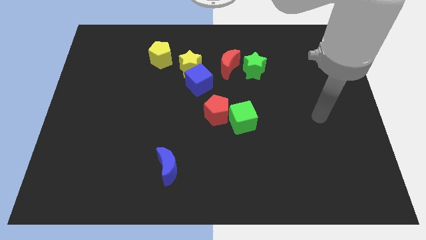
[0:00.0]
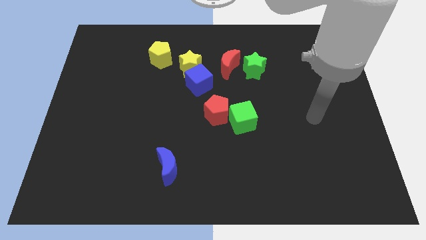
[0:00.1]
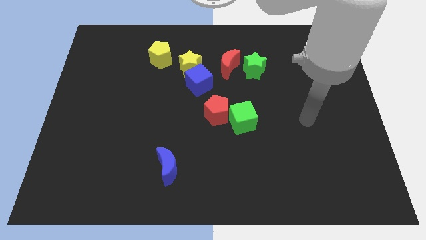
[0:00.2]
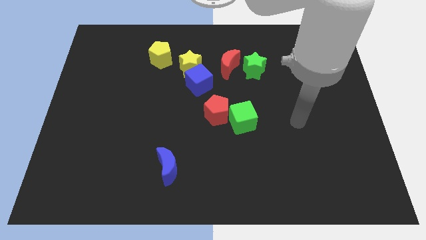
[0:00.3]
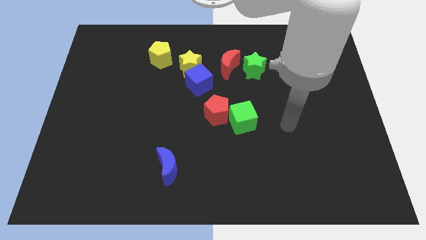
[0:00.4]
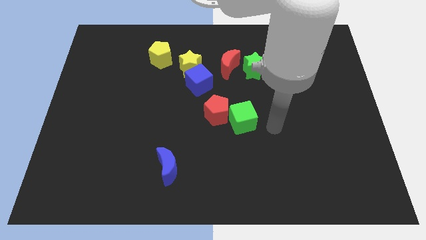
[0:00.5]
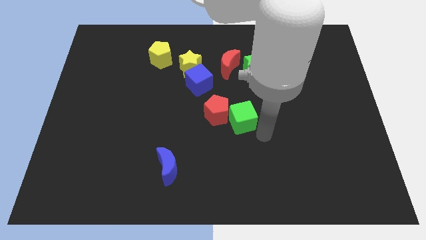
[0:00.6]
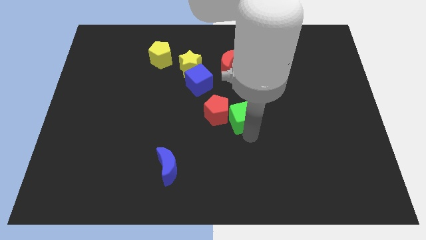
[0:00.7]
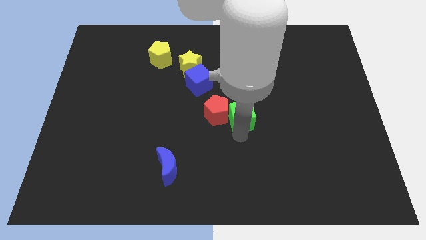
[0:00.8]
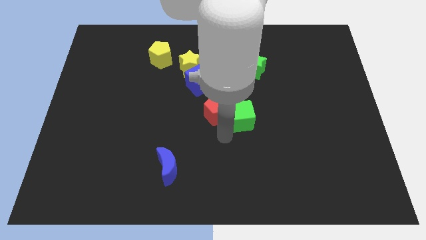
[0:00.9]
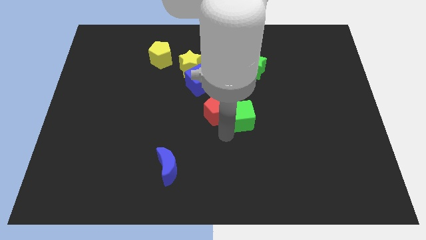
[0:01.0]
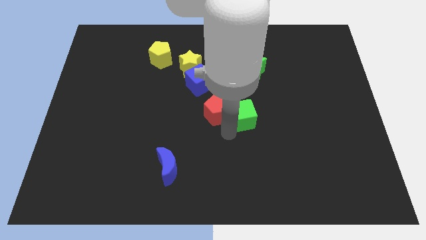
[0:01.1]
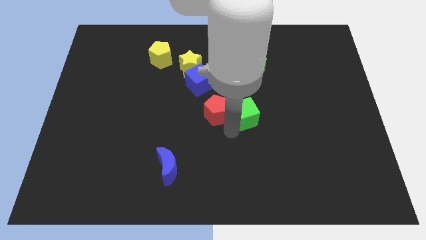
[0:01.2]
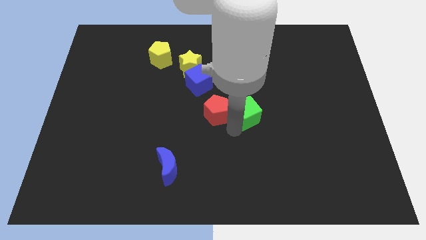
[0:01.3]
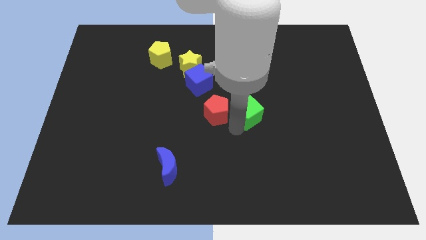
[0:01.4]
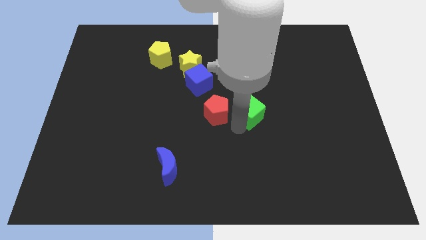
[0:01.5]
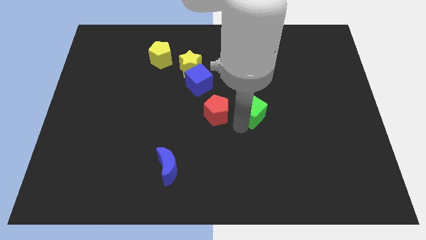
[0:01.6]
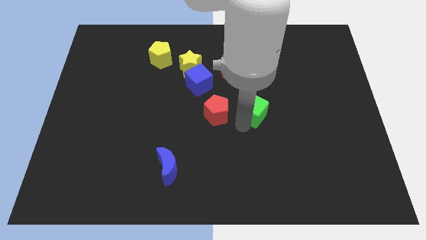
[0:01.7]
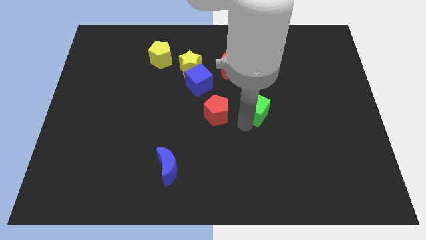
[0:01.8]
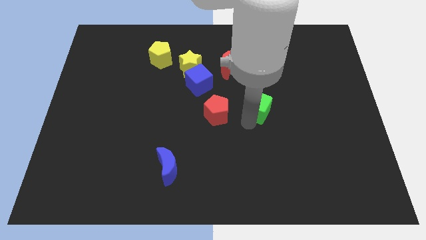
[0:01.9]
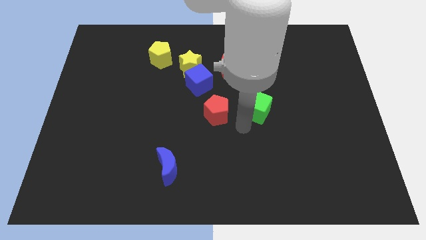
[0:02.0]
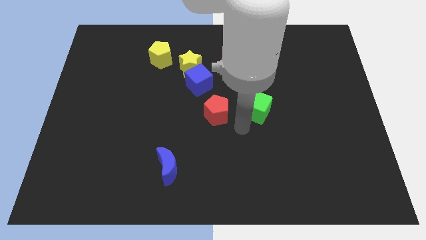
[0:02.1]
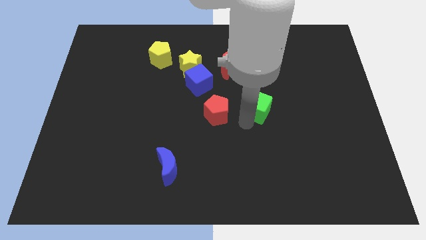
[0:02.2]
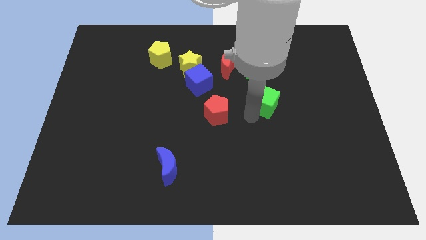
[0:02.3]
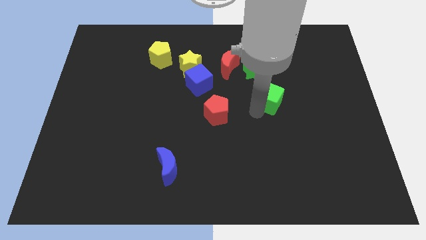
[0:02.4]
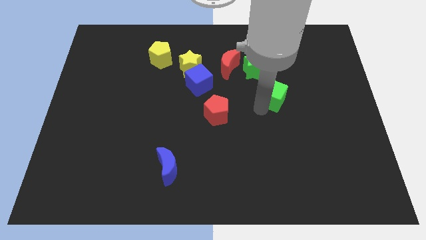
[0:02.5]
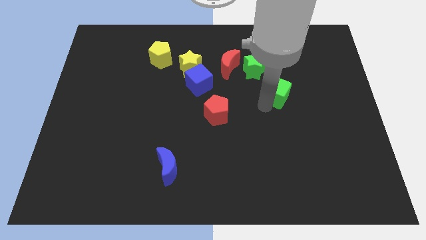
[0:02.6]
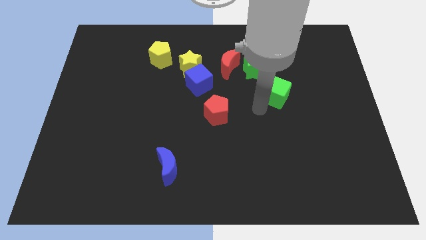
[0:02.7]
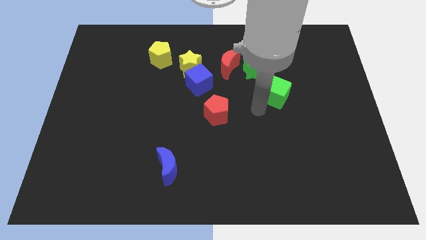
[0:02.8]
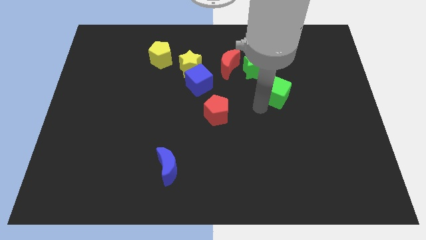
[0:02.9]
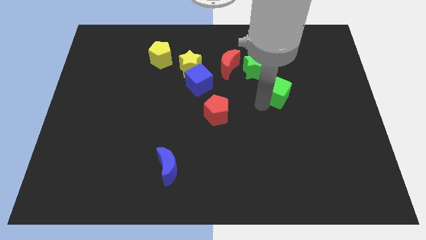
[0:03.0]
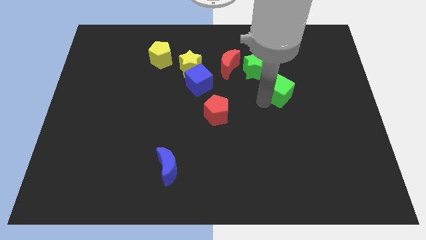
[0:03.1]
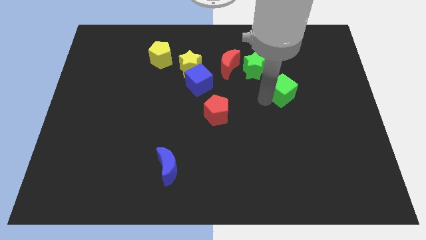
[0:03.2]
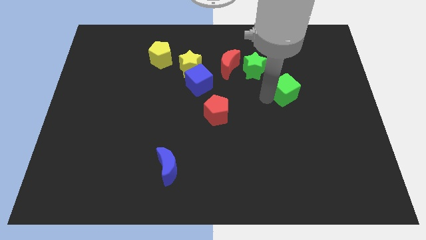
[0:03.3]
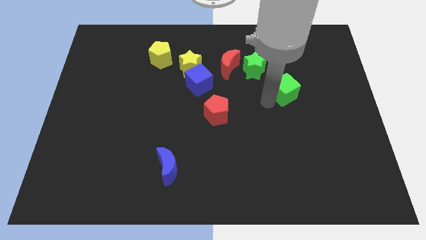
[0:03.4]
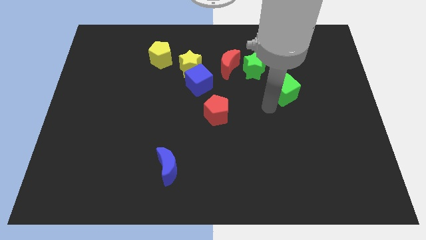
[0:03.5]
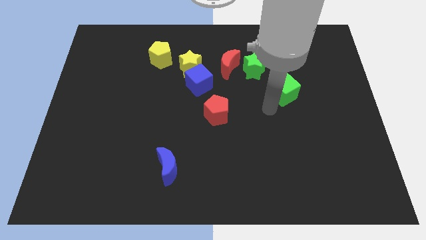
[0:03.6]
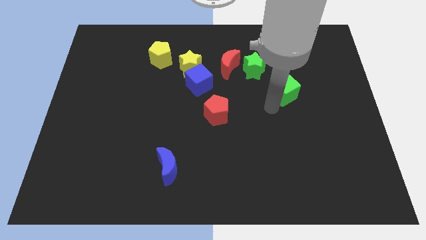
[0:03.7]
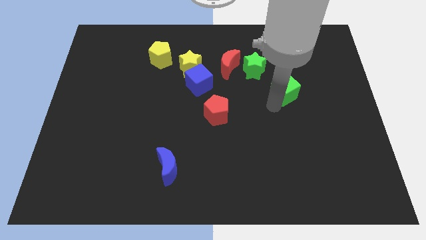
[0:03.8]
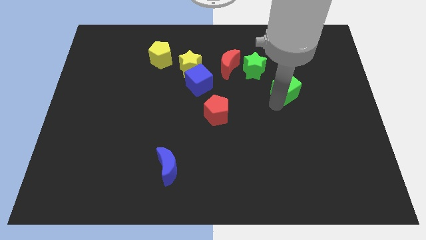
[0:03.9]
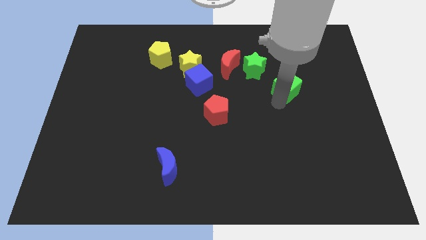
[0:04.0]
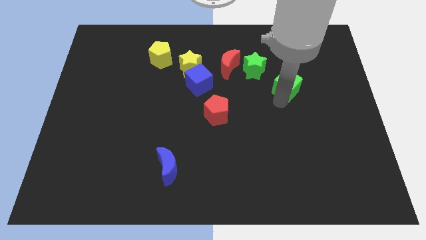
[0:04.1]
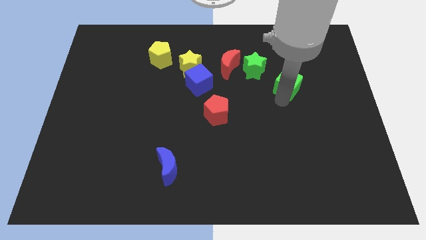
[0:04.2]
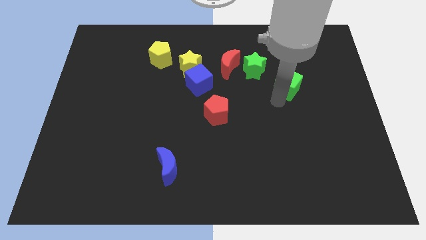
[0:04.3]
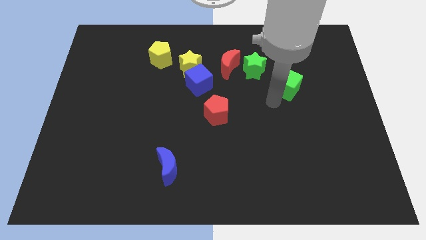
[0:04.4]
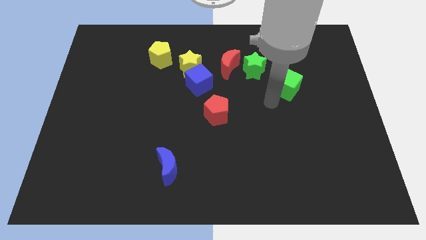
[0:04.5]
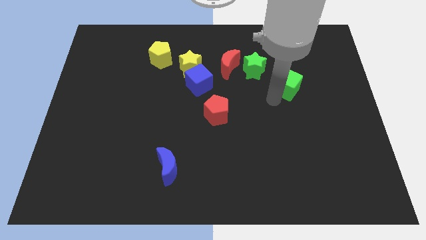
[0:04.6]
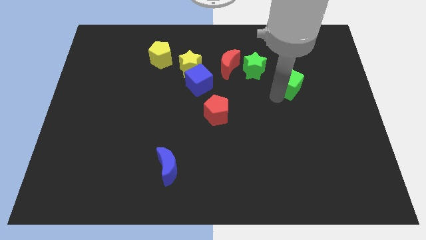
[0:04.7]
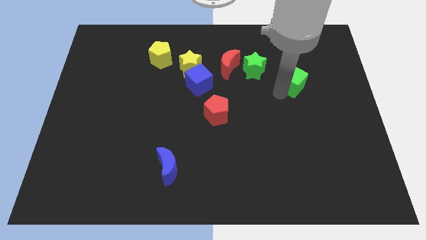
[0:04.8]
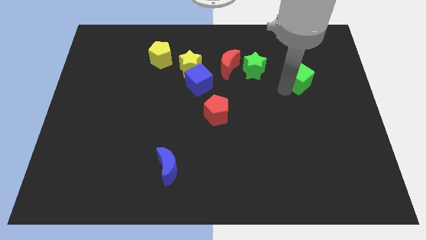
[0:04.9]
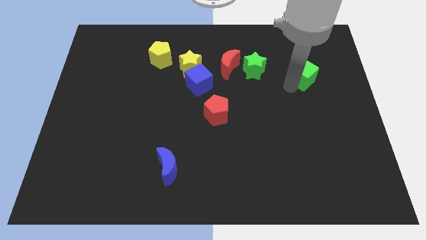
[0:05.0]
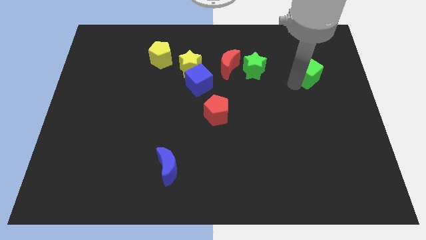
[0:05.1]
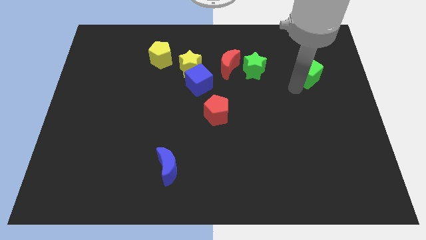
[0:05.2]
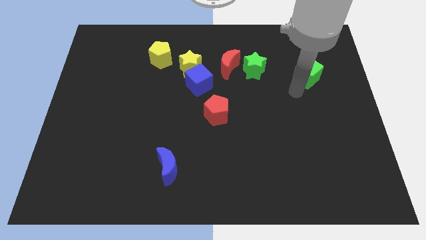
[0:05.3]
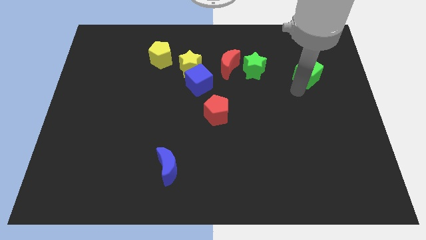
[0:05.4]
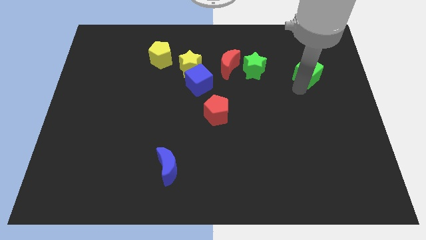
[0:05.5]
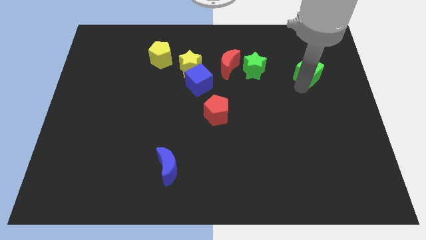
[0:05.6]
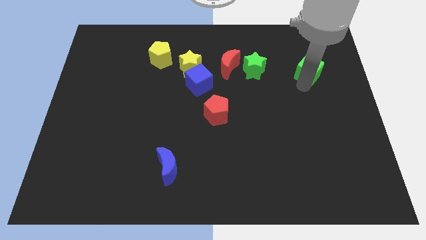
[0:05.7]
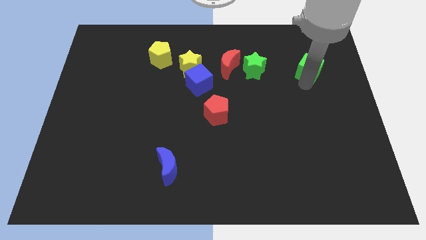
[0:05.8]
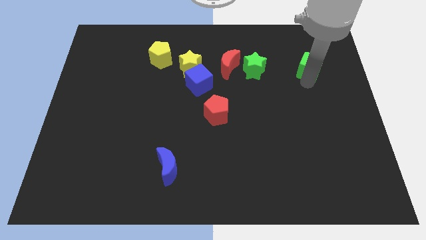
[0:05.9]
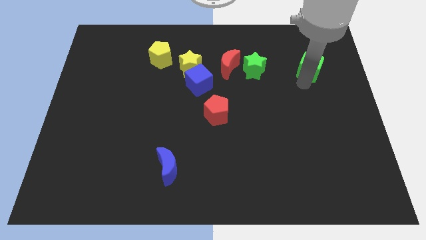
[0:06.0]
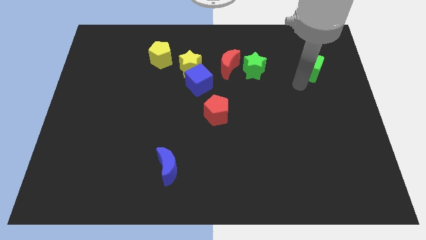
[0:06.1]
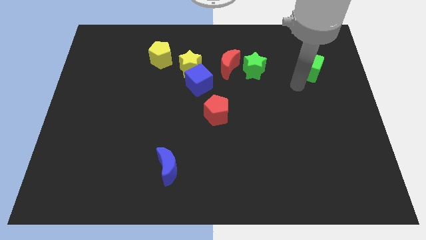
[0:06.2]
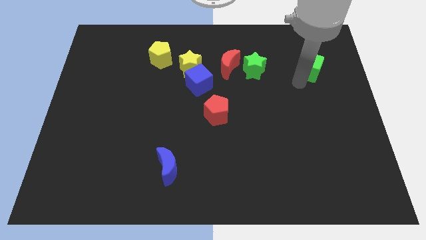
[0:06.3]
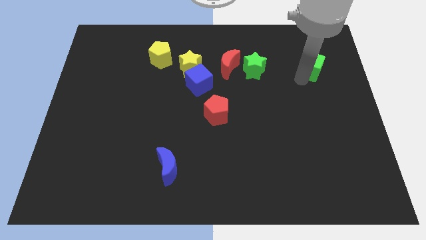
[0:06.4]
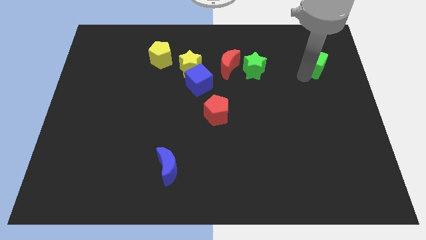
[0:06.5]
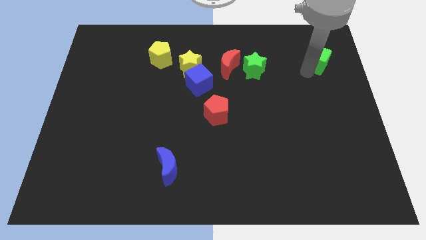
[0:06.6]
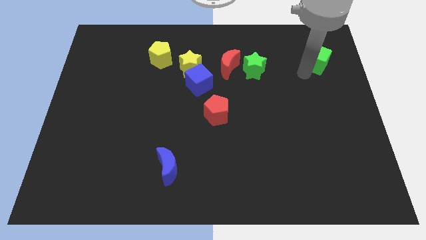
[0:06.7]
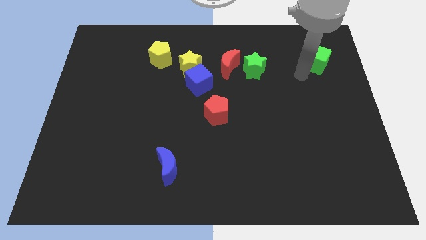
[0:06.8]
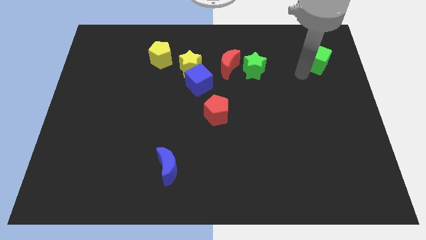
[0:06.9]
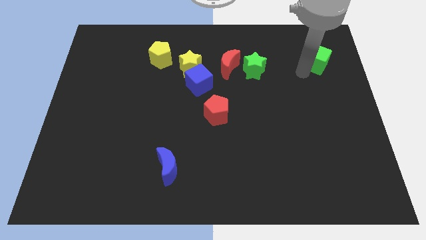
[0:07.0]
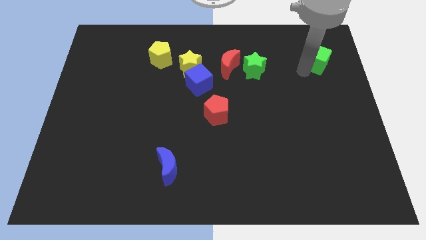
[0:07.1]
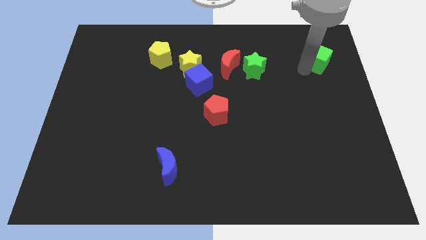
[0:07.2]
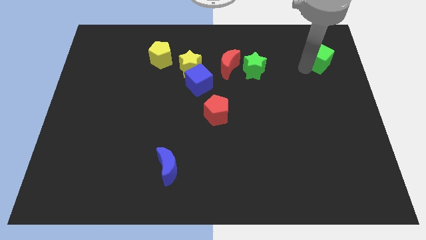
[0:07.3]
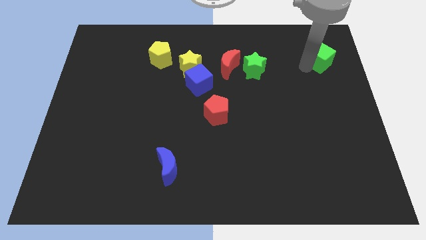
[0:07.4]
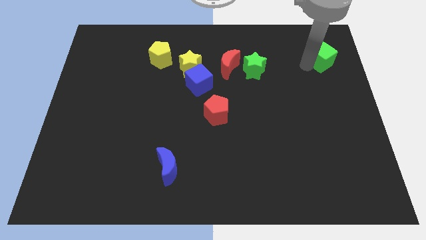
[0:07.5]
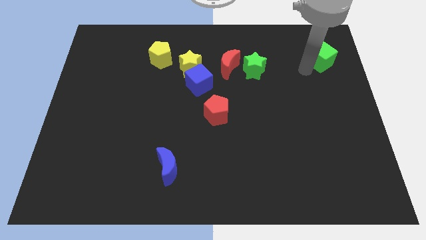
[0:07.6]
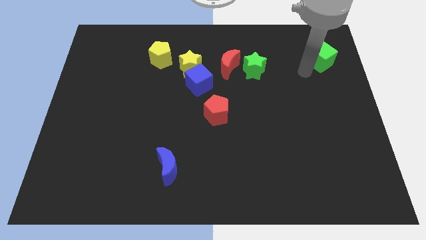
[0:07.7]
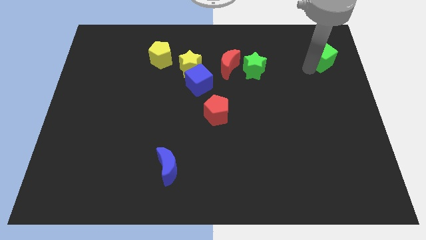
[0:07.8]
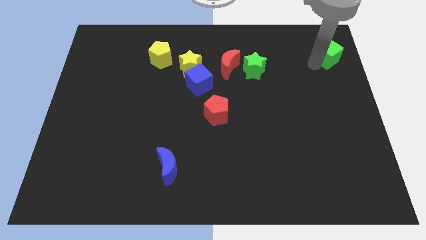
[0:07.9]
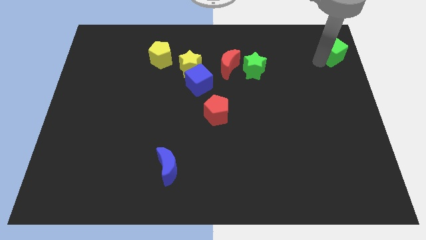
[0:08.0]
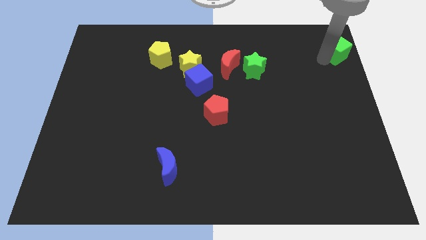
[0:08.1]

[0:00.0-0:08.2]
slide the green cube to the upper right corner
